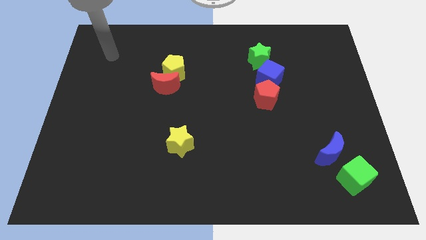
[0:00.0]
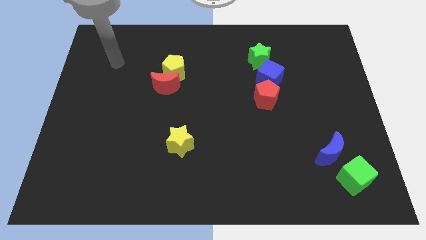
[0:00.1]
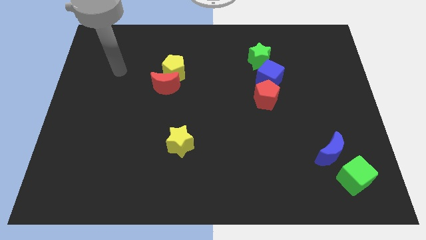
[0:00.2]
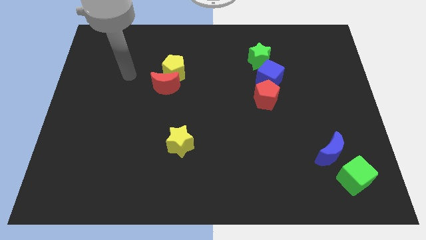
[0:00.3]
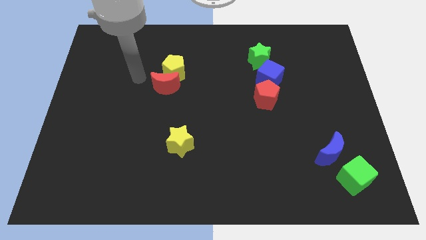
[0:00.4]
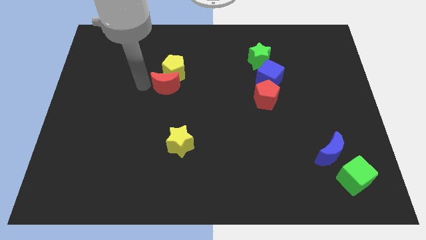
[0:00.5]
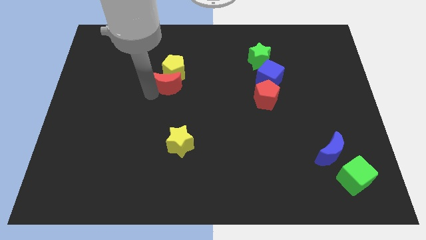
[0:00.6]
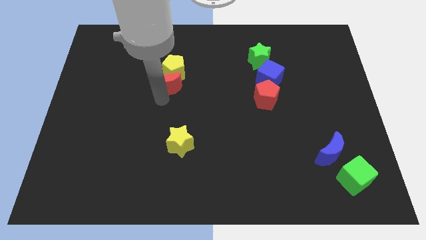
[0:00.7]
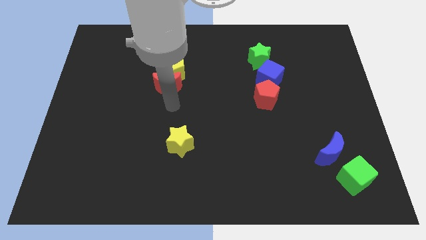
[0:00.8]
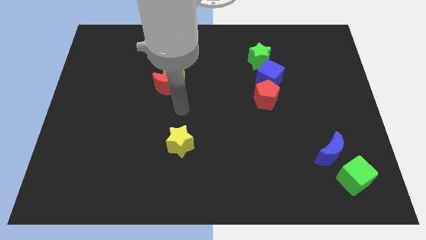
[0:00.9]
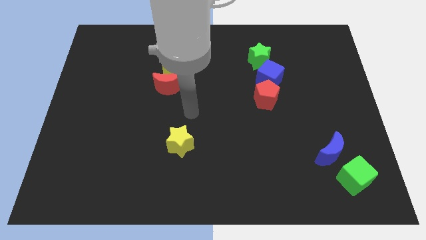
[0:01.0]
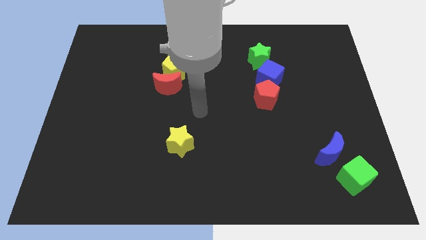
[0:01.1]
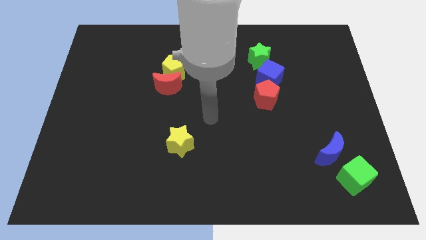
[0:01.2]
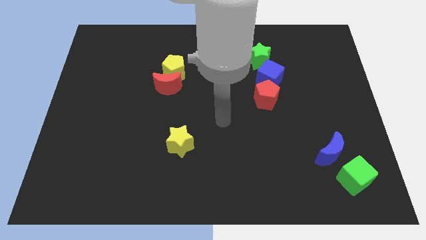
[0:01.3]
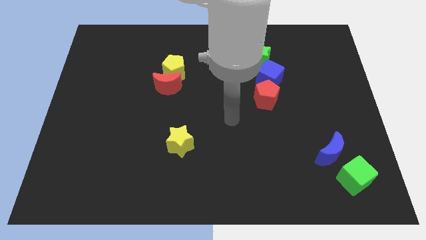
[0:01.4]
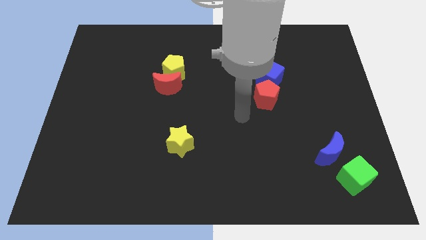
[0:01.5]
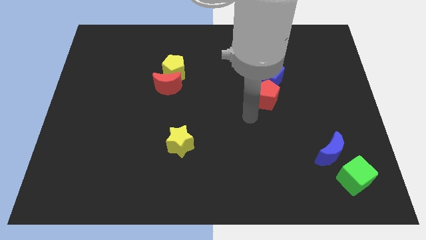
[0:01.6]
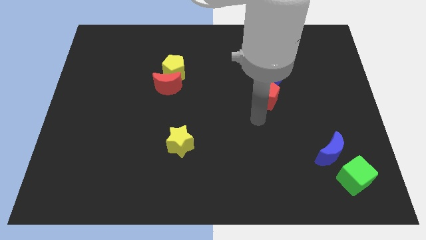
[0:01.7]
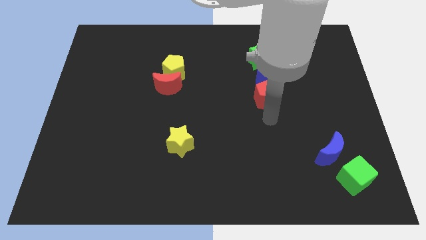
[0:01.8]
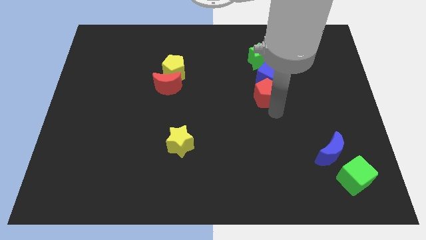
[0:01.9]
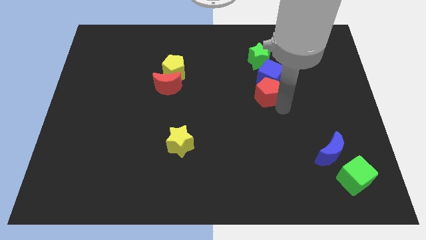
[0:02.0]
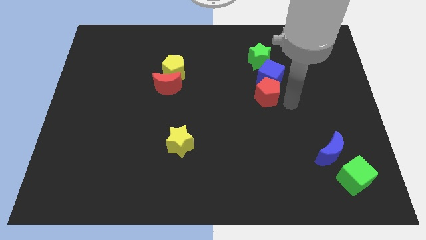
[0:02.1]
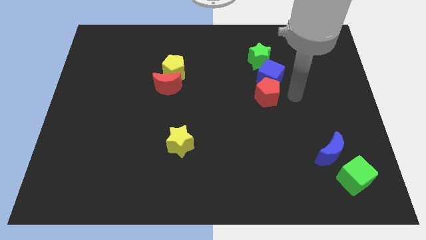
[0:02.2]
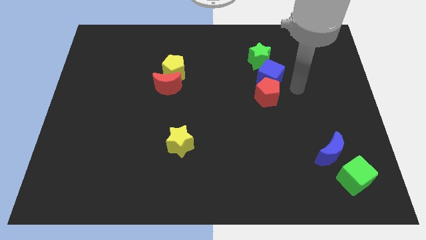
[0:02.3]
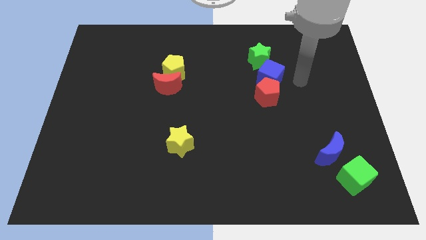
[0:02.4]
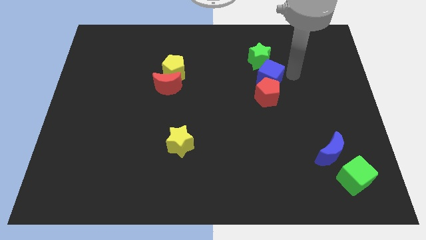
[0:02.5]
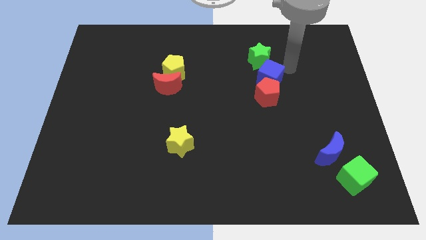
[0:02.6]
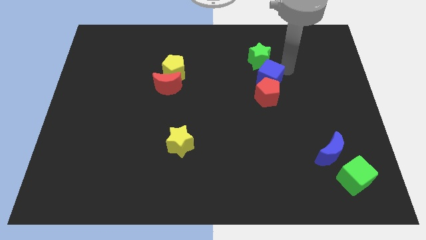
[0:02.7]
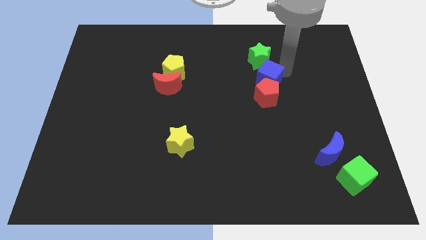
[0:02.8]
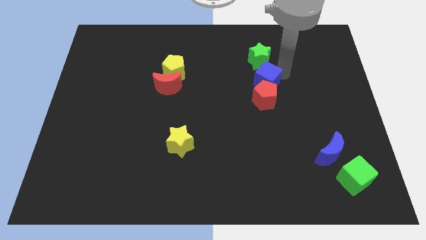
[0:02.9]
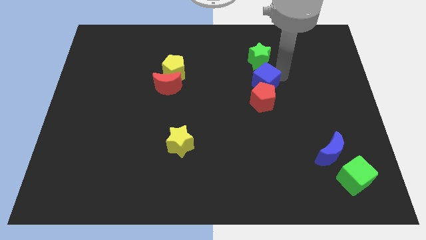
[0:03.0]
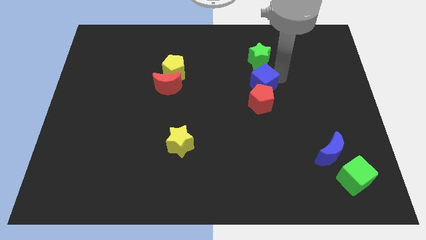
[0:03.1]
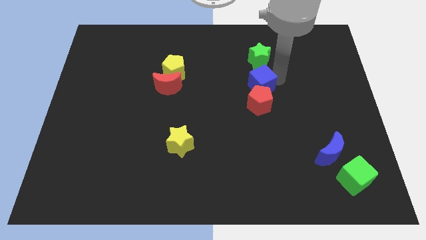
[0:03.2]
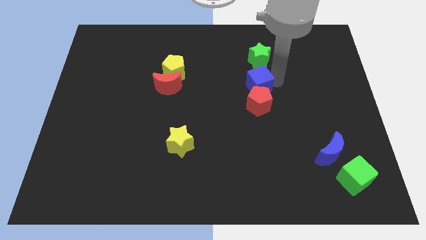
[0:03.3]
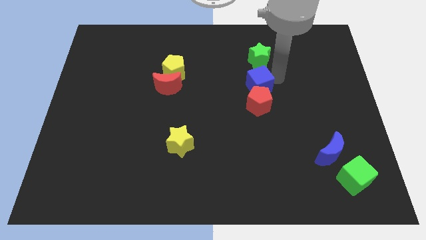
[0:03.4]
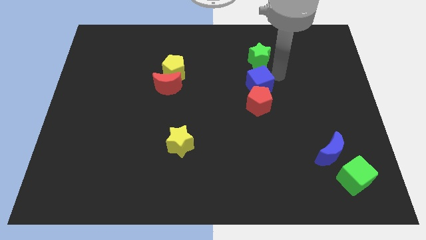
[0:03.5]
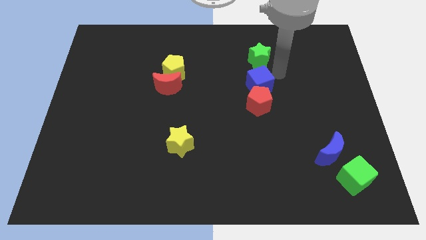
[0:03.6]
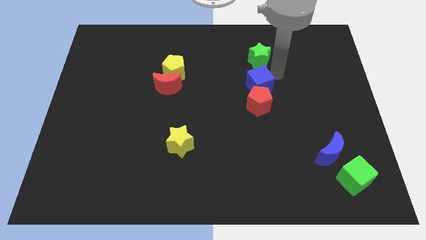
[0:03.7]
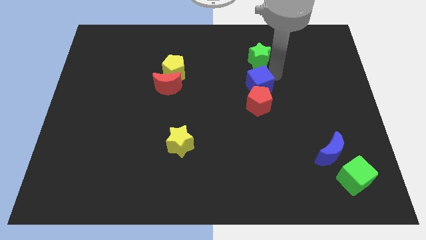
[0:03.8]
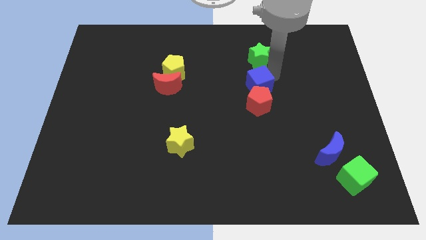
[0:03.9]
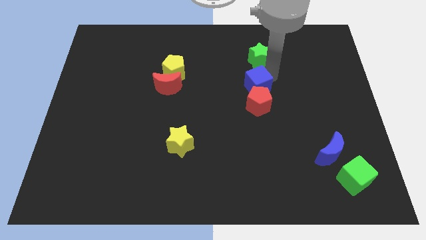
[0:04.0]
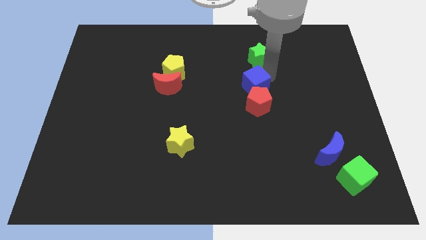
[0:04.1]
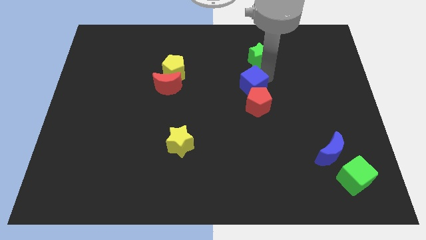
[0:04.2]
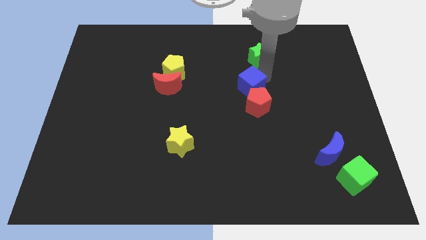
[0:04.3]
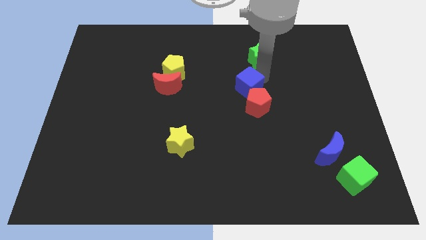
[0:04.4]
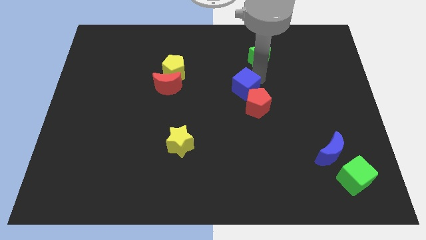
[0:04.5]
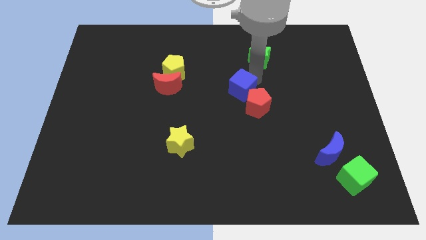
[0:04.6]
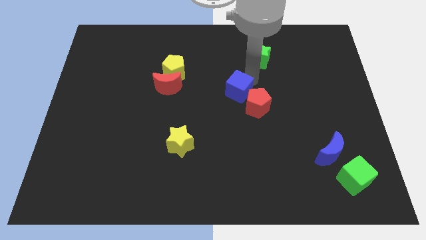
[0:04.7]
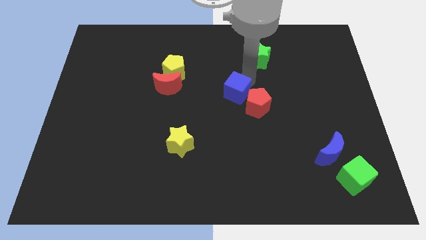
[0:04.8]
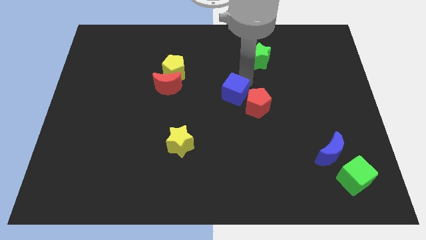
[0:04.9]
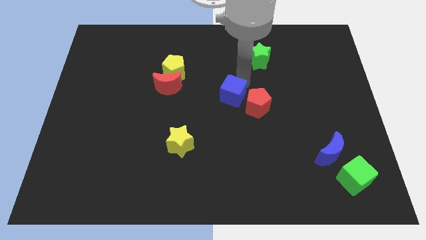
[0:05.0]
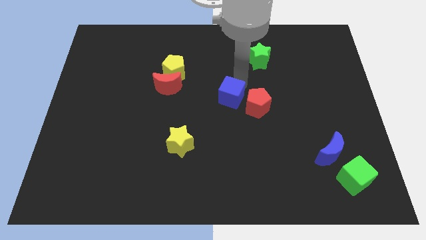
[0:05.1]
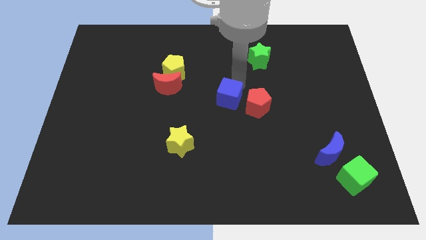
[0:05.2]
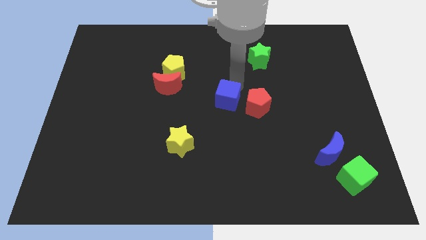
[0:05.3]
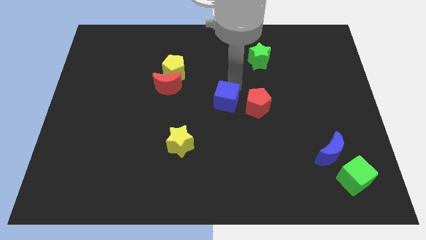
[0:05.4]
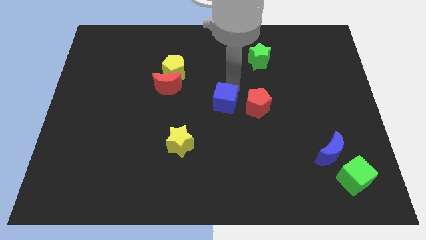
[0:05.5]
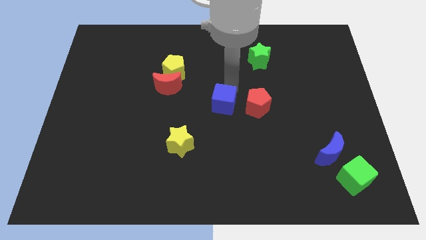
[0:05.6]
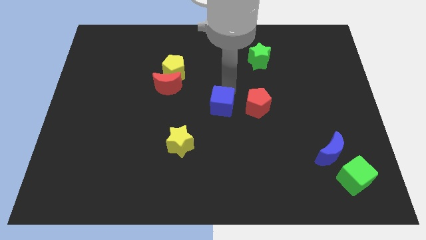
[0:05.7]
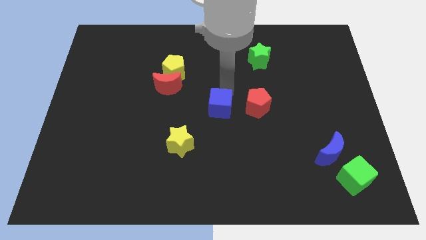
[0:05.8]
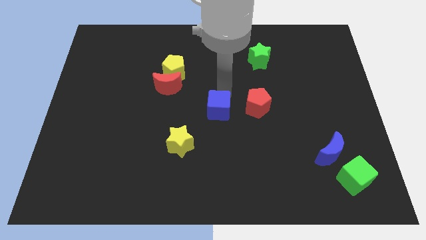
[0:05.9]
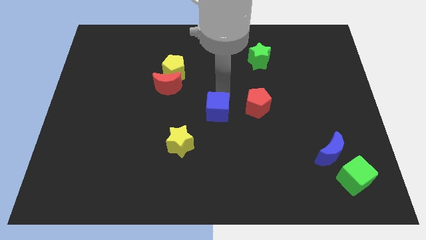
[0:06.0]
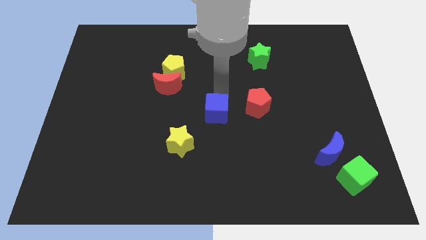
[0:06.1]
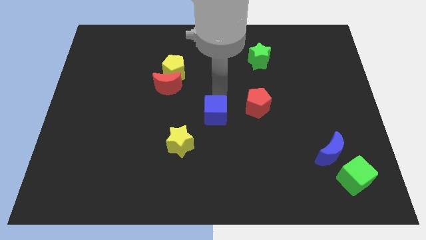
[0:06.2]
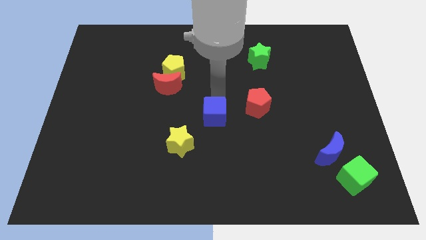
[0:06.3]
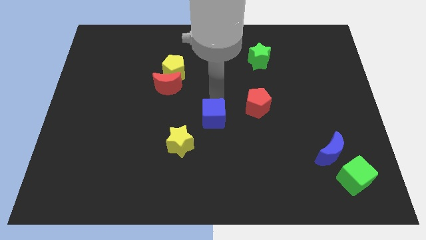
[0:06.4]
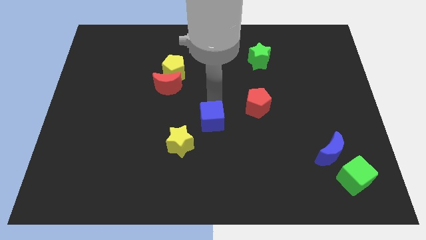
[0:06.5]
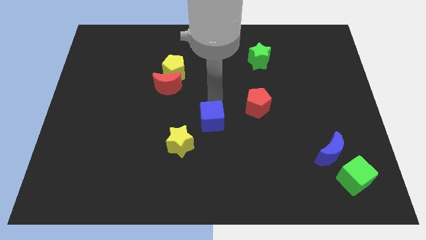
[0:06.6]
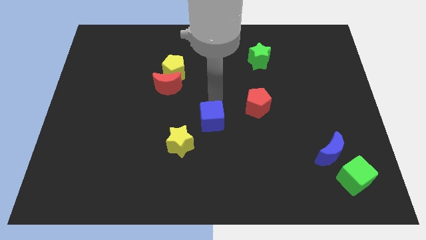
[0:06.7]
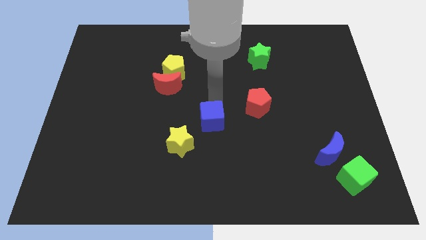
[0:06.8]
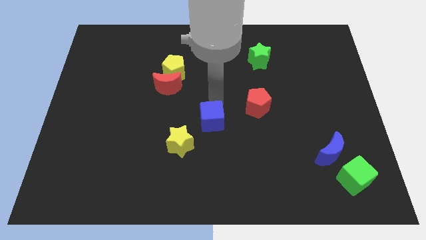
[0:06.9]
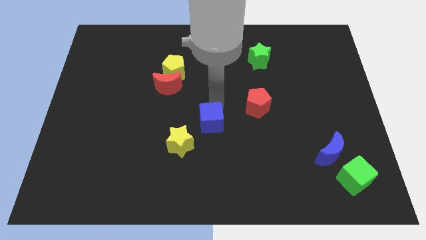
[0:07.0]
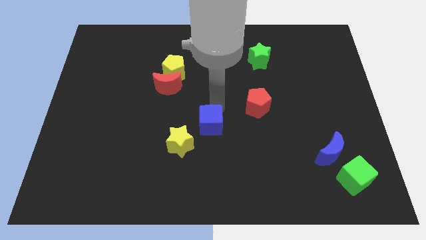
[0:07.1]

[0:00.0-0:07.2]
push the blue cube downwards and left

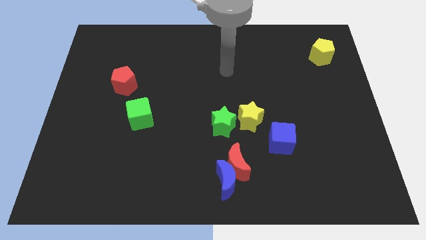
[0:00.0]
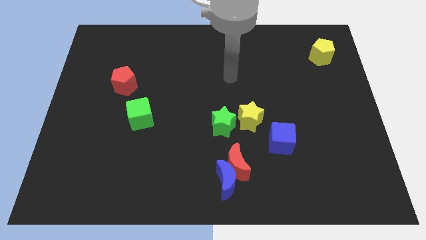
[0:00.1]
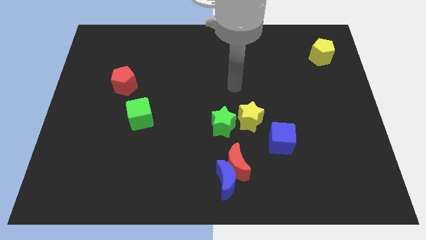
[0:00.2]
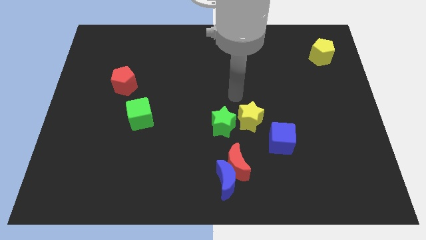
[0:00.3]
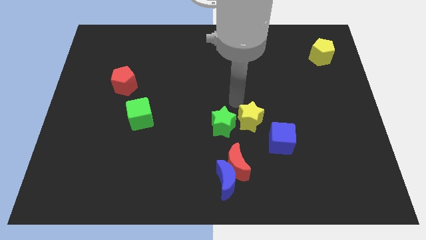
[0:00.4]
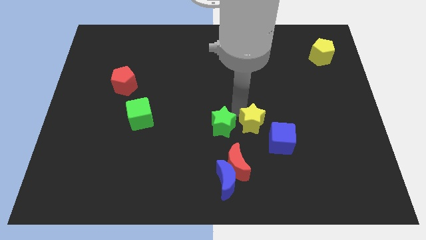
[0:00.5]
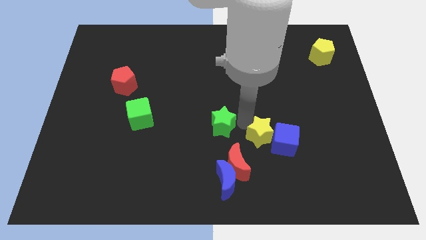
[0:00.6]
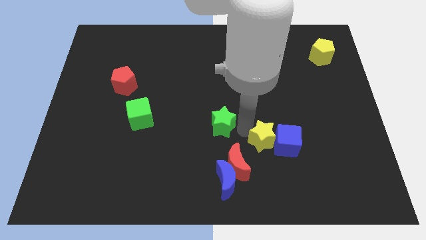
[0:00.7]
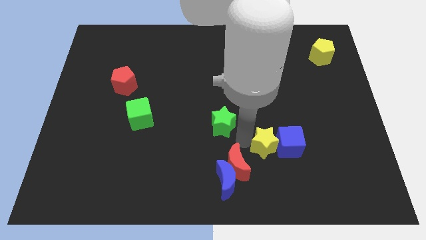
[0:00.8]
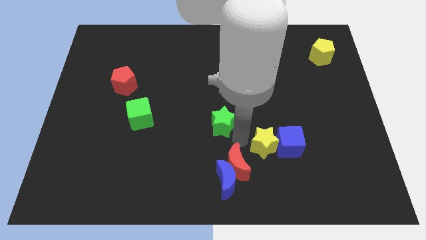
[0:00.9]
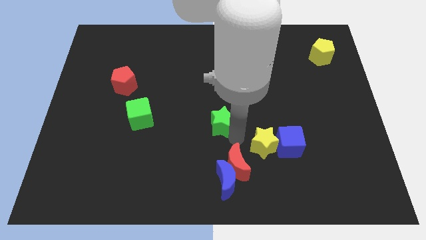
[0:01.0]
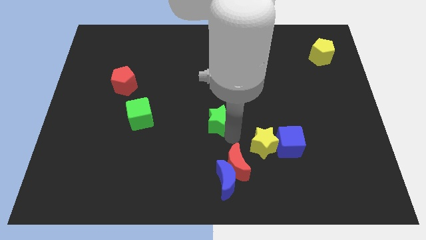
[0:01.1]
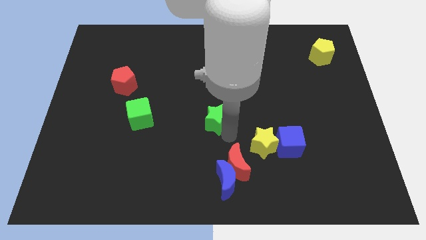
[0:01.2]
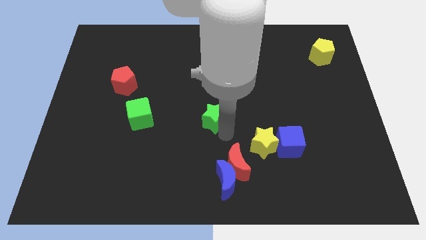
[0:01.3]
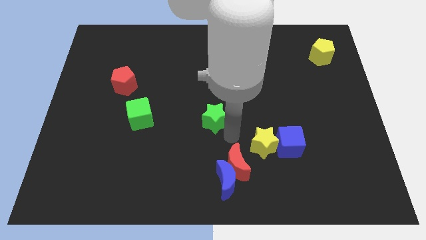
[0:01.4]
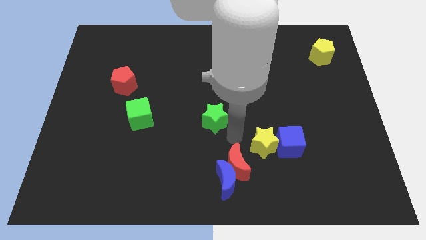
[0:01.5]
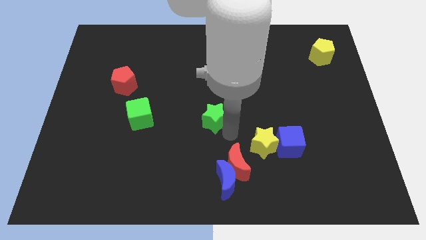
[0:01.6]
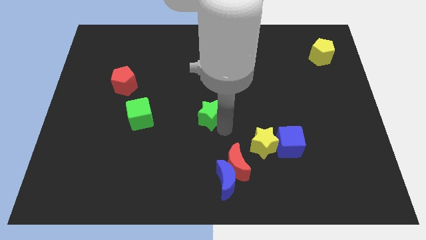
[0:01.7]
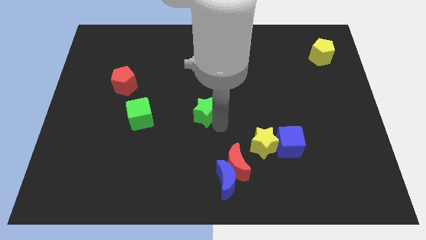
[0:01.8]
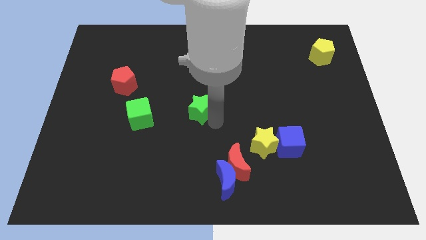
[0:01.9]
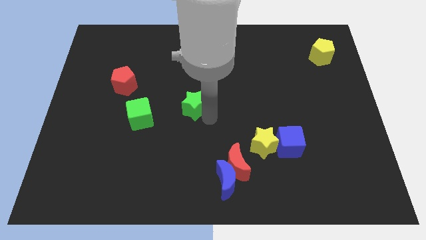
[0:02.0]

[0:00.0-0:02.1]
slide the green star a little upwards and to the left diagonally
